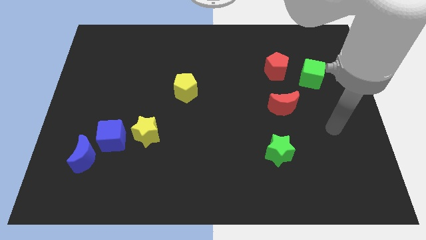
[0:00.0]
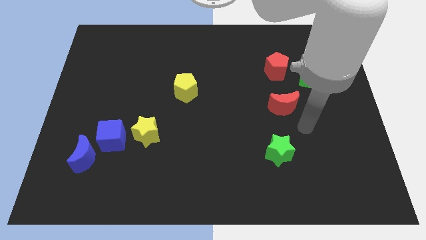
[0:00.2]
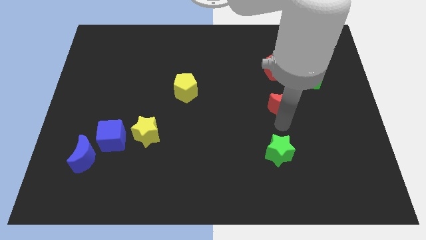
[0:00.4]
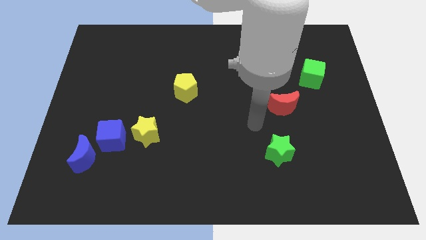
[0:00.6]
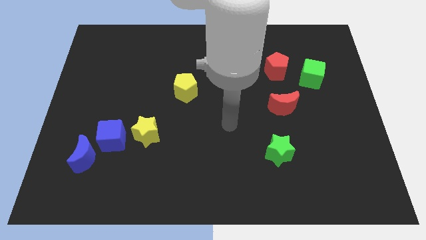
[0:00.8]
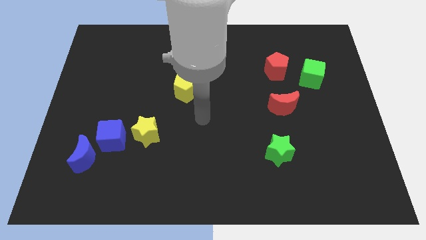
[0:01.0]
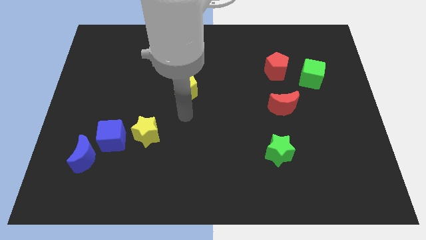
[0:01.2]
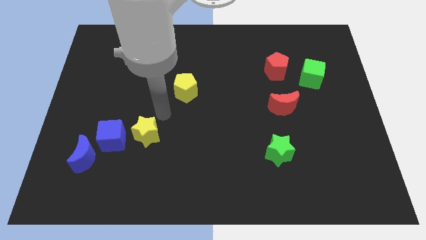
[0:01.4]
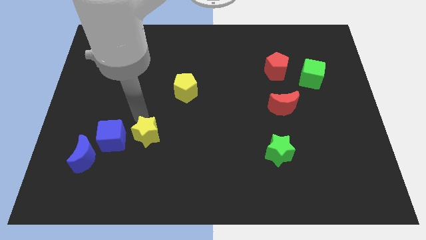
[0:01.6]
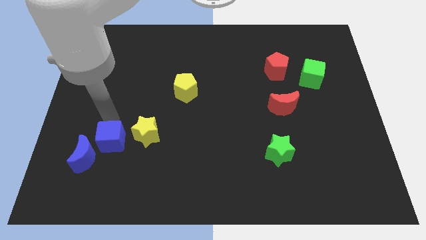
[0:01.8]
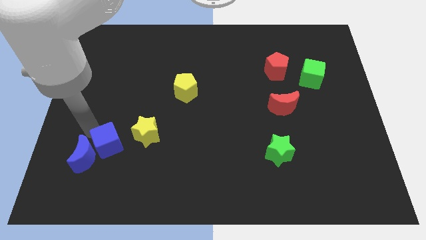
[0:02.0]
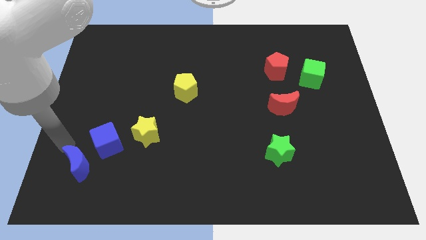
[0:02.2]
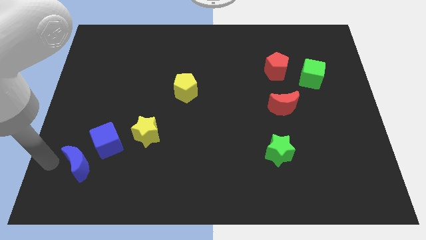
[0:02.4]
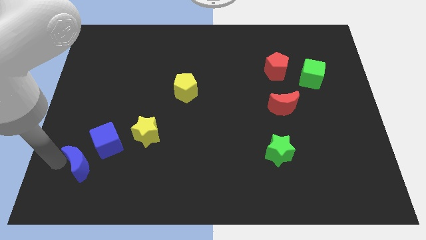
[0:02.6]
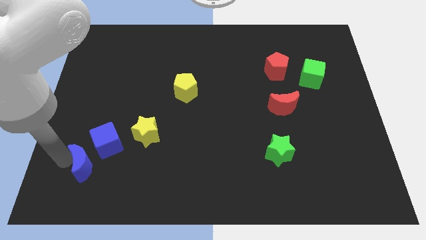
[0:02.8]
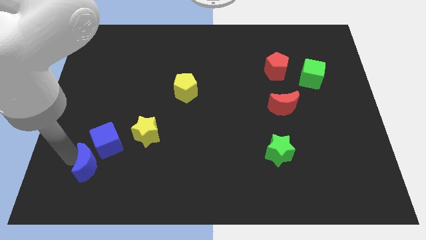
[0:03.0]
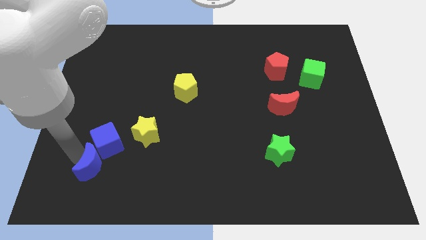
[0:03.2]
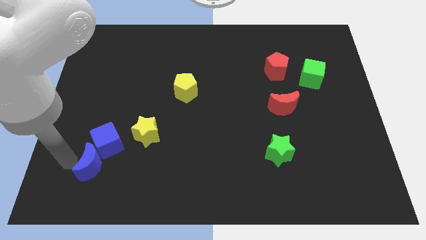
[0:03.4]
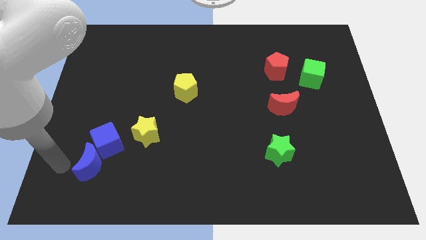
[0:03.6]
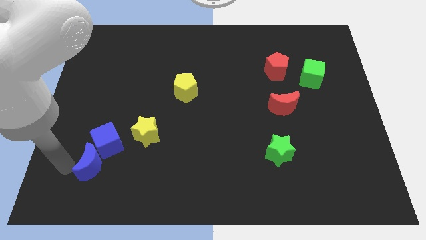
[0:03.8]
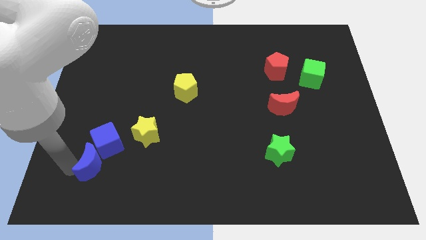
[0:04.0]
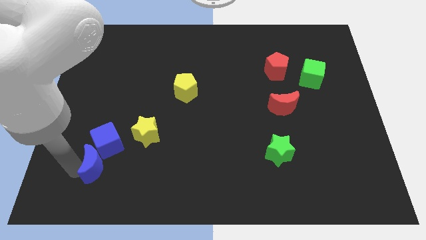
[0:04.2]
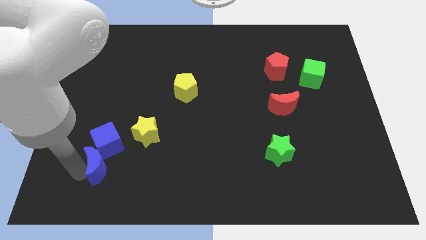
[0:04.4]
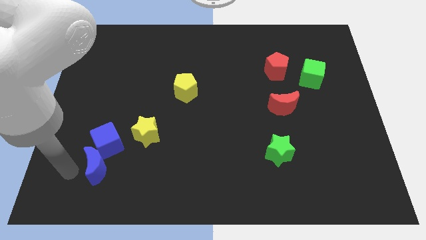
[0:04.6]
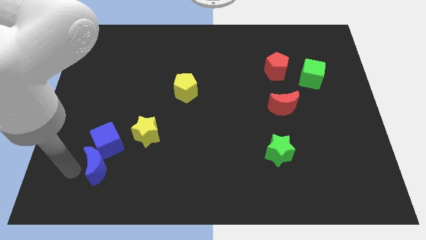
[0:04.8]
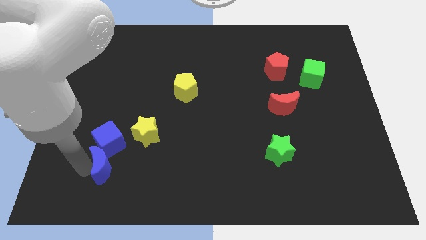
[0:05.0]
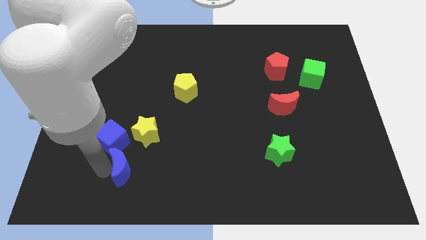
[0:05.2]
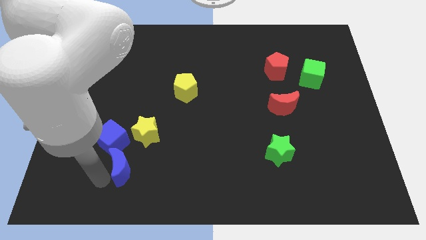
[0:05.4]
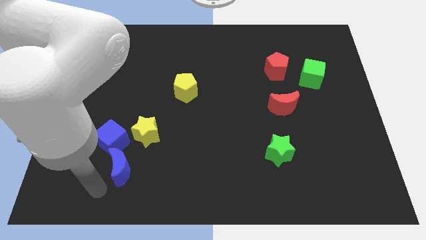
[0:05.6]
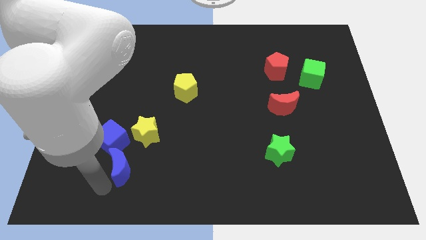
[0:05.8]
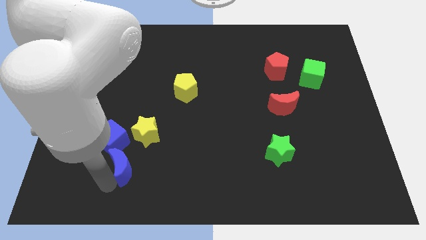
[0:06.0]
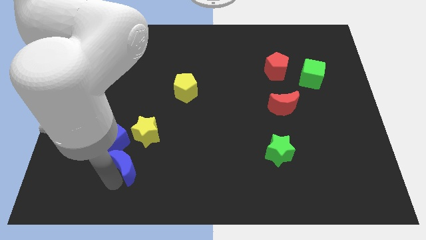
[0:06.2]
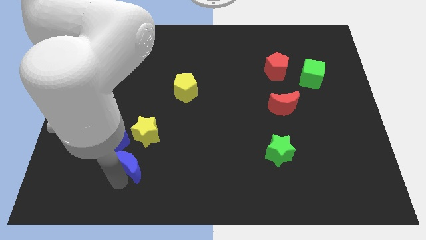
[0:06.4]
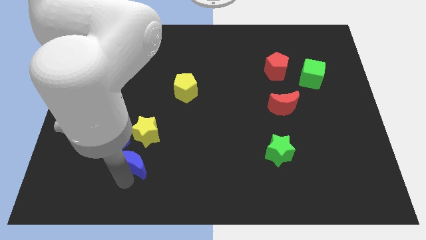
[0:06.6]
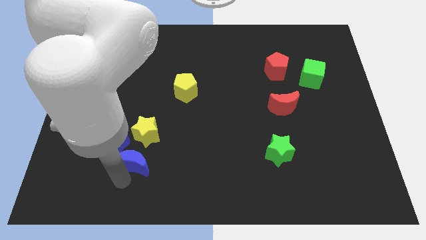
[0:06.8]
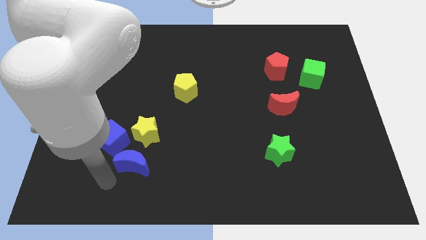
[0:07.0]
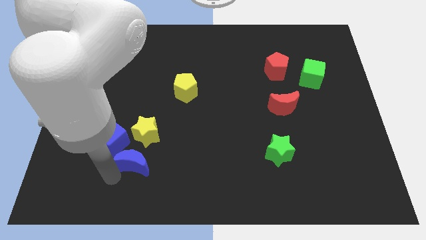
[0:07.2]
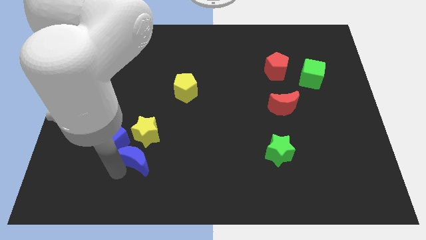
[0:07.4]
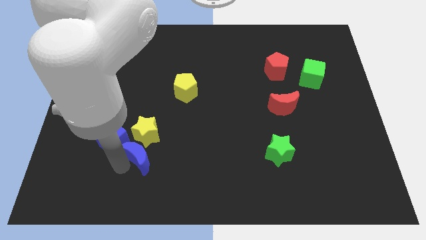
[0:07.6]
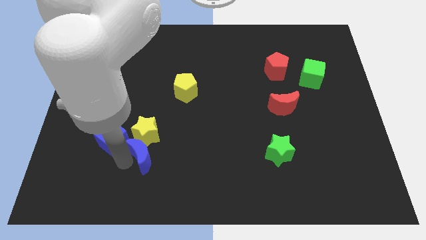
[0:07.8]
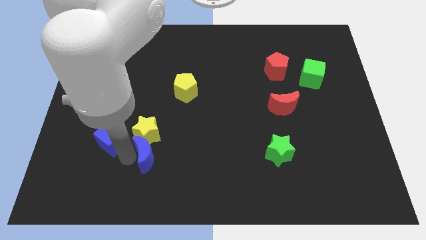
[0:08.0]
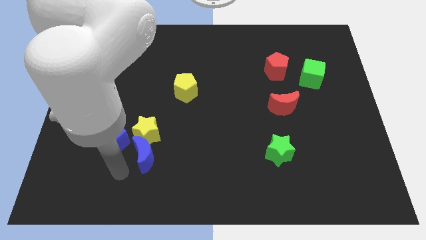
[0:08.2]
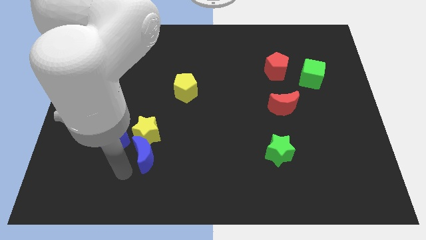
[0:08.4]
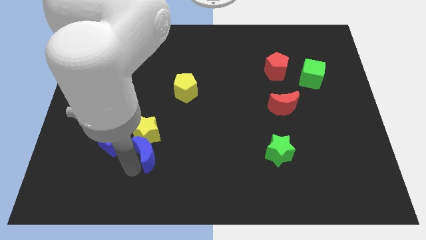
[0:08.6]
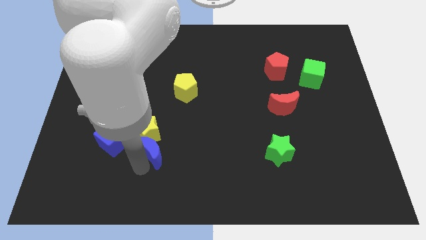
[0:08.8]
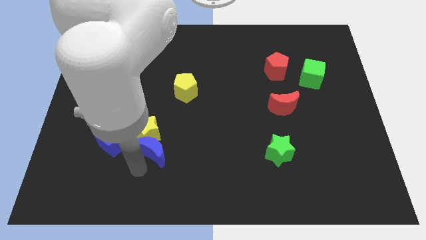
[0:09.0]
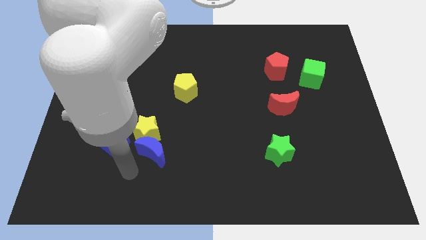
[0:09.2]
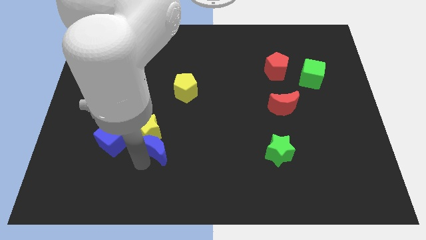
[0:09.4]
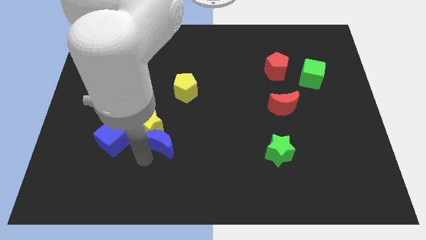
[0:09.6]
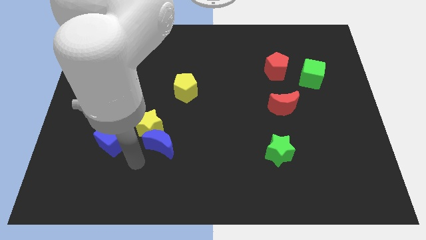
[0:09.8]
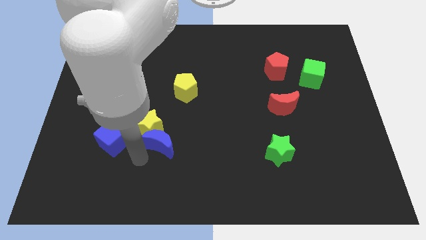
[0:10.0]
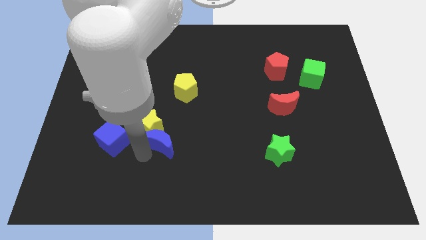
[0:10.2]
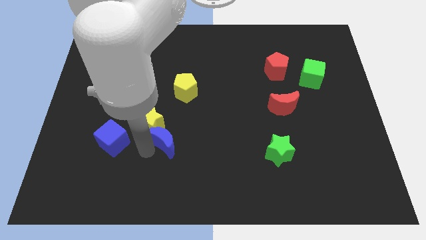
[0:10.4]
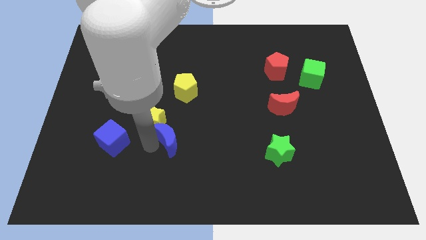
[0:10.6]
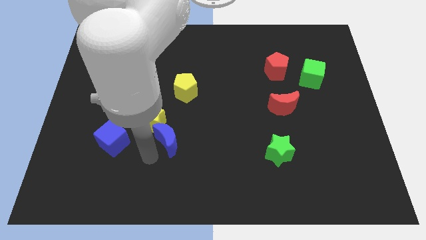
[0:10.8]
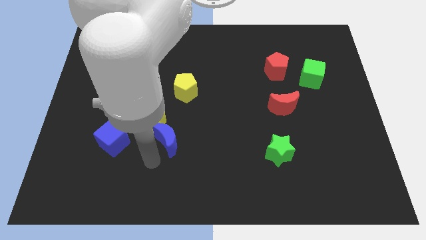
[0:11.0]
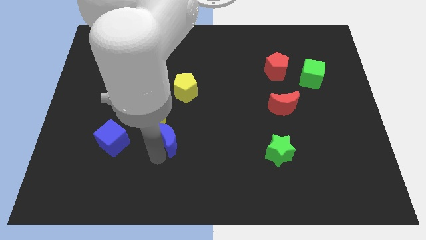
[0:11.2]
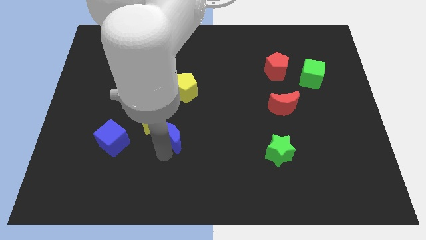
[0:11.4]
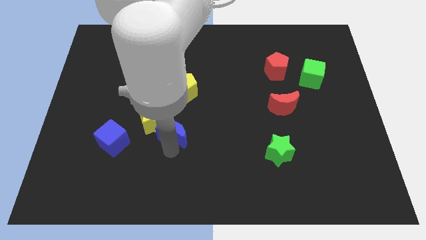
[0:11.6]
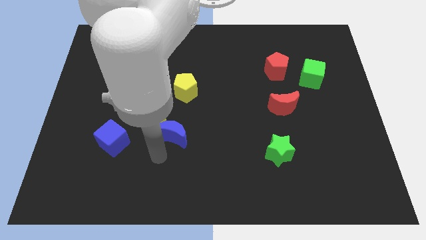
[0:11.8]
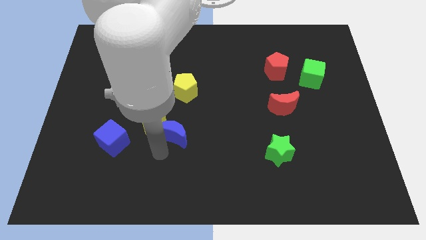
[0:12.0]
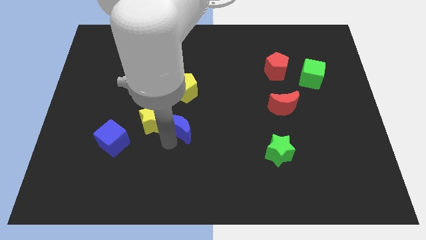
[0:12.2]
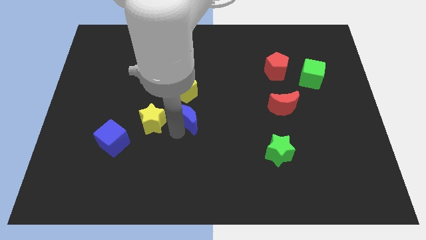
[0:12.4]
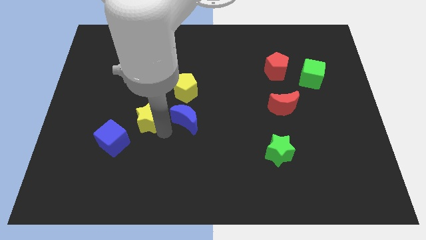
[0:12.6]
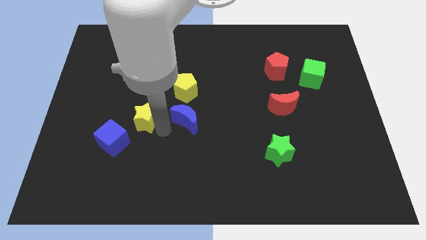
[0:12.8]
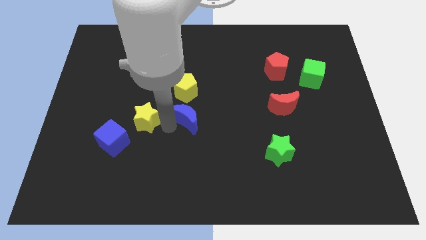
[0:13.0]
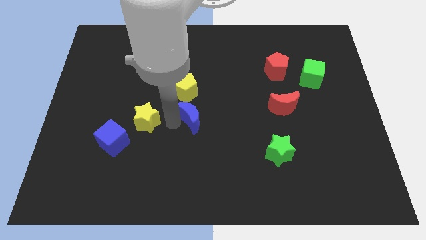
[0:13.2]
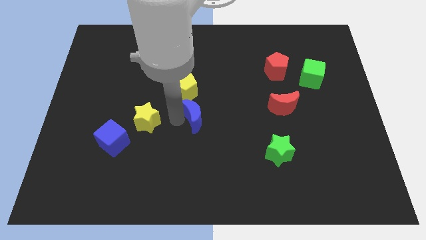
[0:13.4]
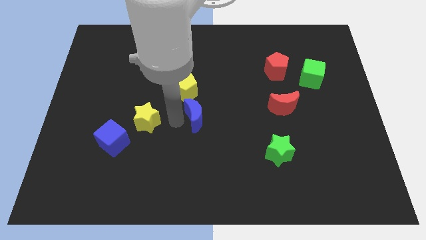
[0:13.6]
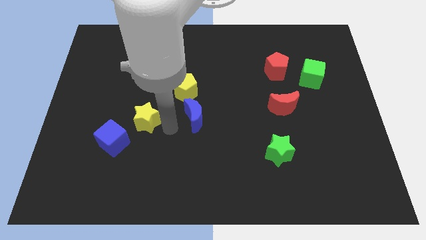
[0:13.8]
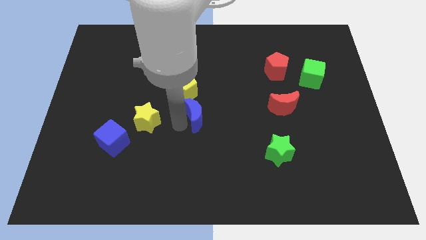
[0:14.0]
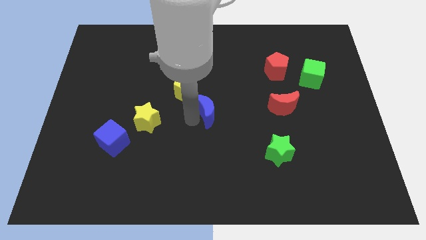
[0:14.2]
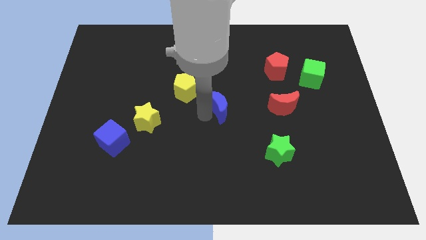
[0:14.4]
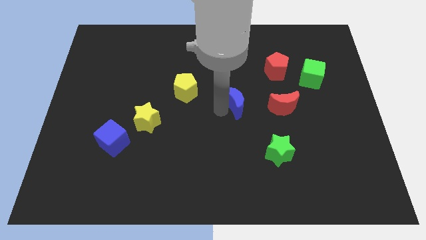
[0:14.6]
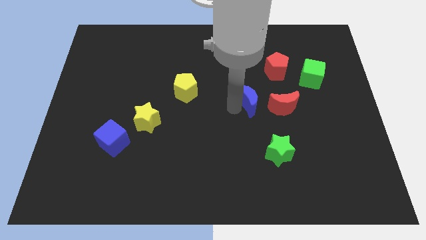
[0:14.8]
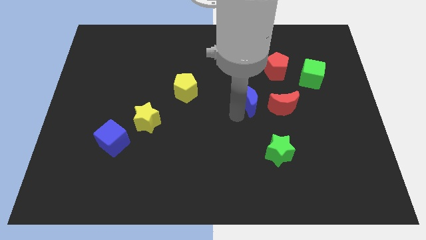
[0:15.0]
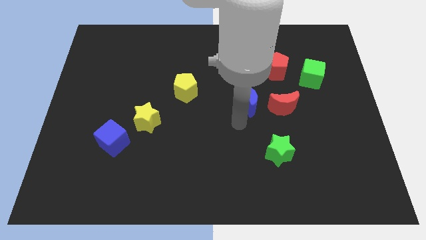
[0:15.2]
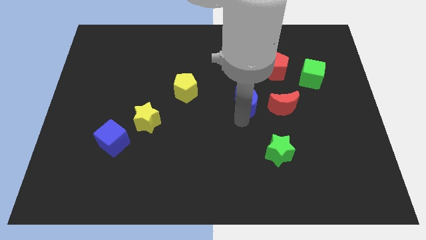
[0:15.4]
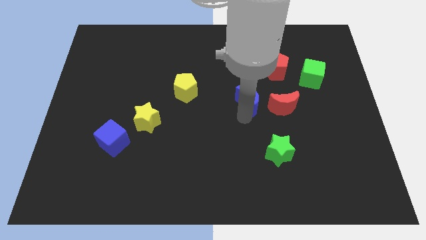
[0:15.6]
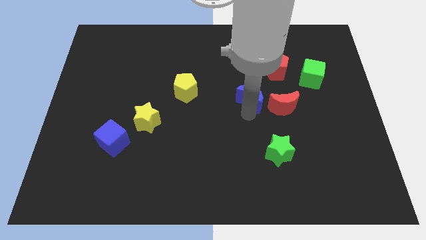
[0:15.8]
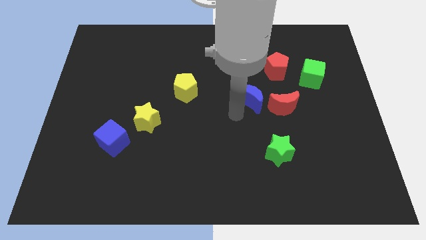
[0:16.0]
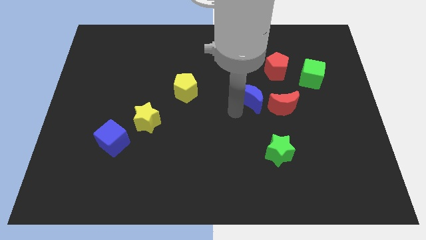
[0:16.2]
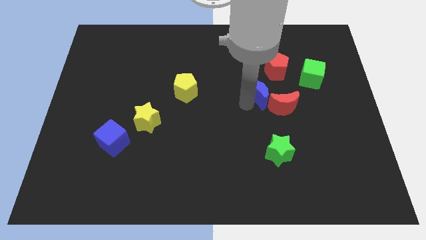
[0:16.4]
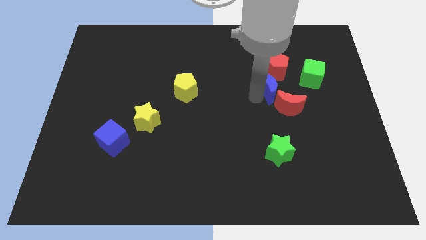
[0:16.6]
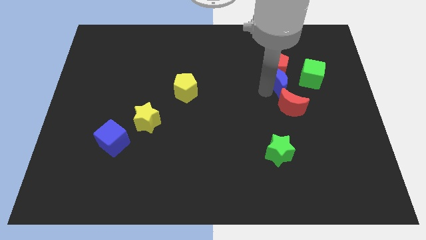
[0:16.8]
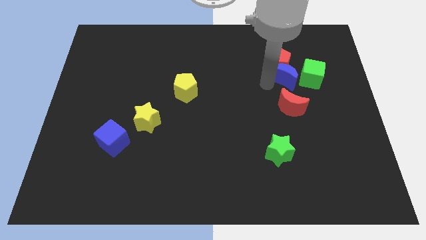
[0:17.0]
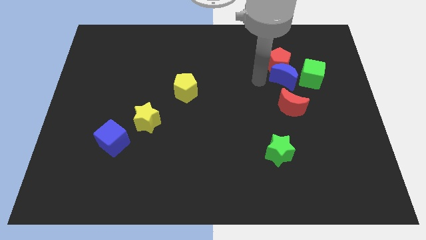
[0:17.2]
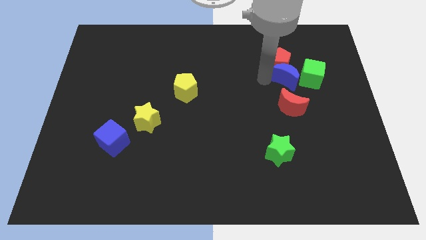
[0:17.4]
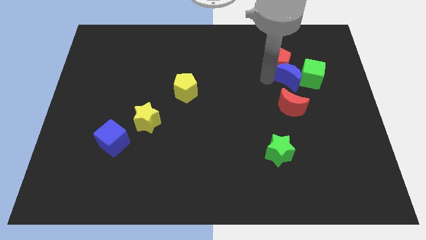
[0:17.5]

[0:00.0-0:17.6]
slide the blue moon close to the green cube
